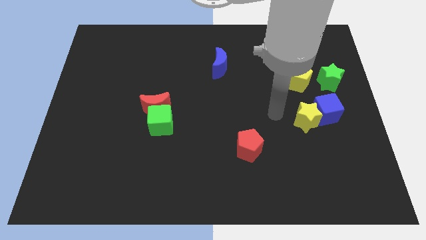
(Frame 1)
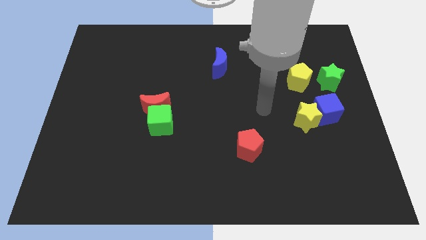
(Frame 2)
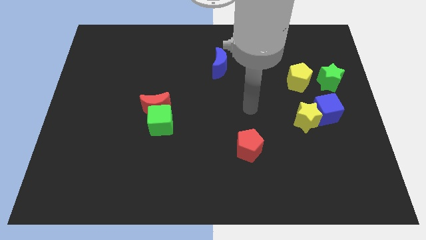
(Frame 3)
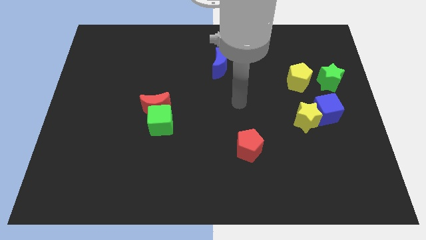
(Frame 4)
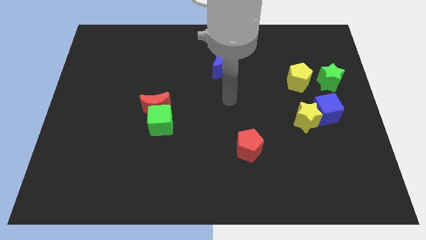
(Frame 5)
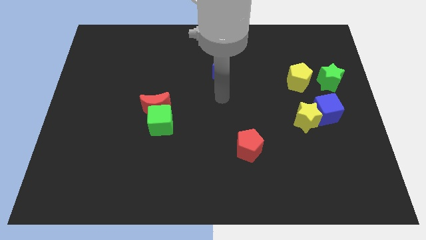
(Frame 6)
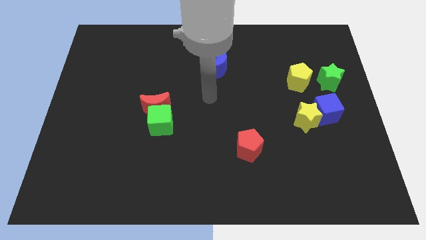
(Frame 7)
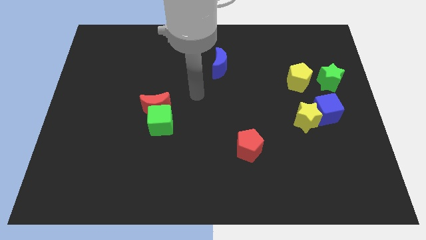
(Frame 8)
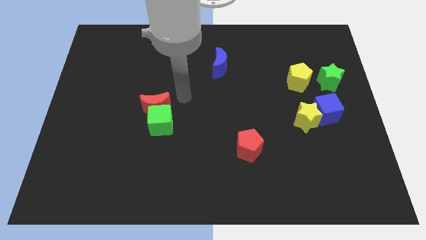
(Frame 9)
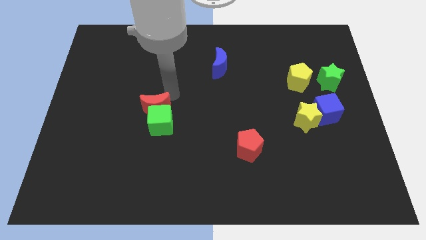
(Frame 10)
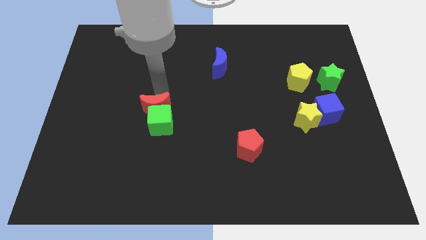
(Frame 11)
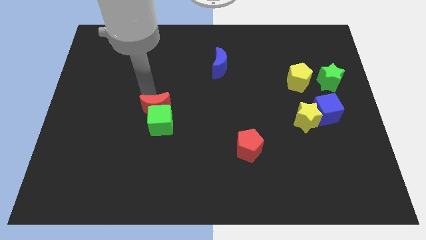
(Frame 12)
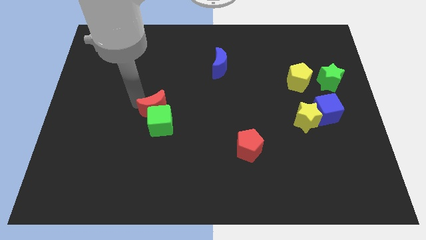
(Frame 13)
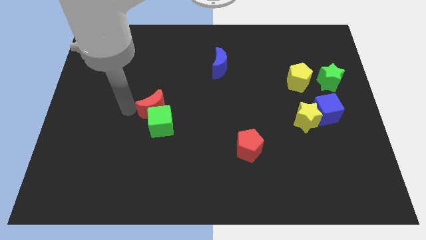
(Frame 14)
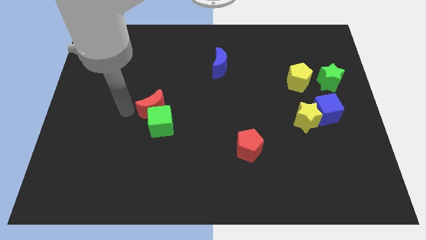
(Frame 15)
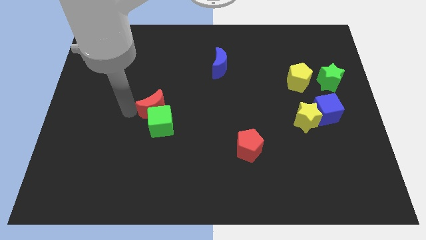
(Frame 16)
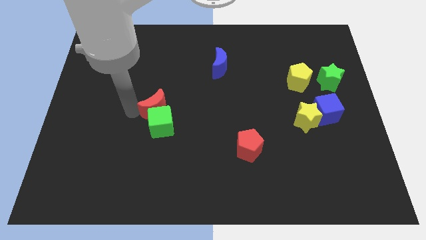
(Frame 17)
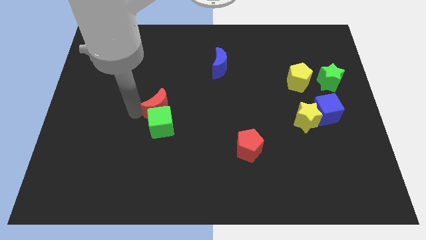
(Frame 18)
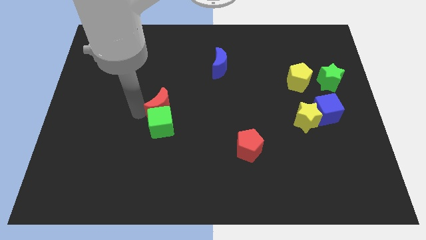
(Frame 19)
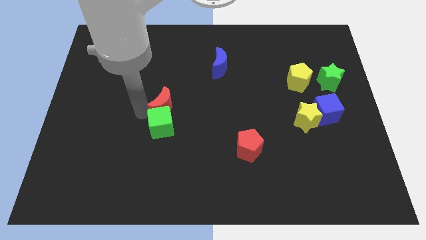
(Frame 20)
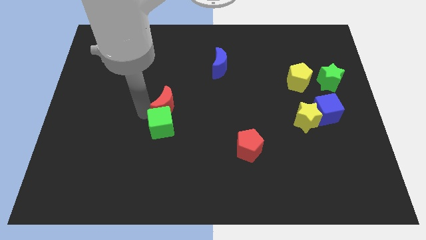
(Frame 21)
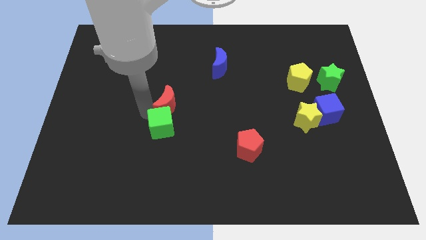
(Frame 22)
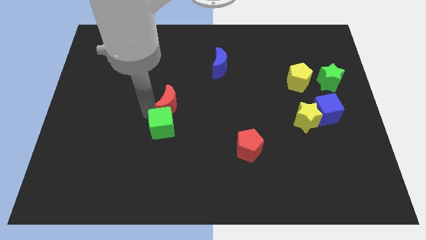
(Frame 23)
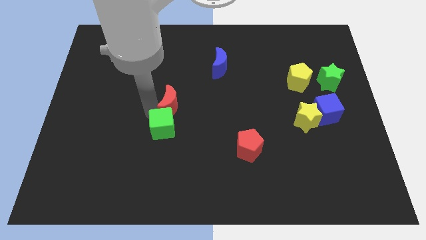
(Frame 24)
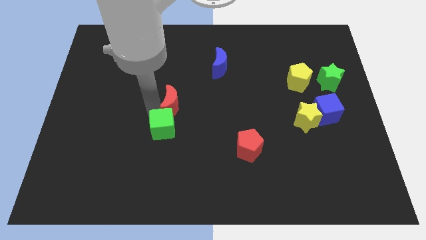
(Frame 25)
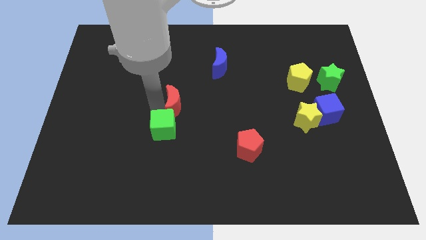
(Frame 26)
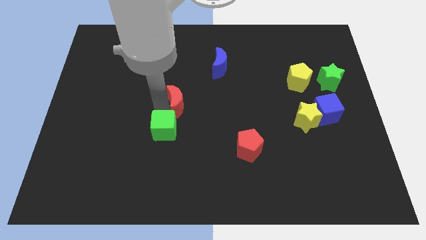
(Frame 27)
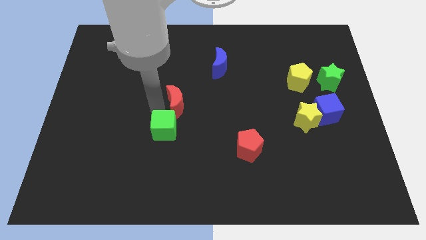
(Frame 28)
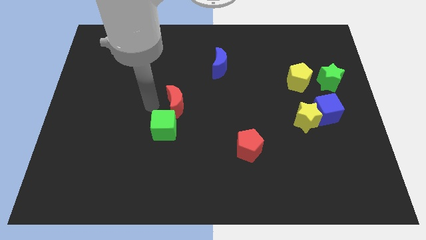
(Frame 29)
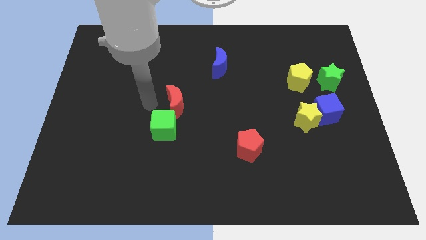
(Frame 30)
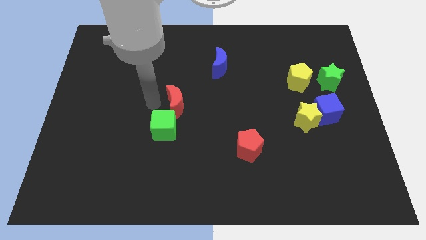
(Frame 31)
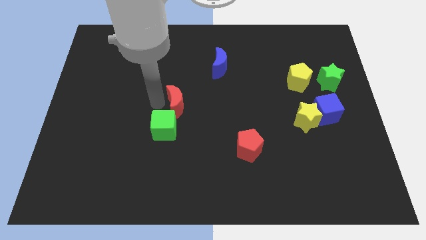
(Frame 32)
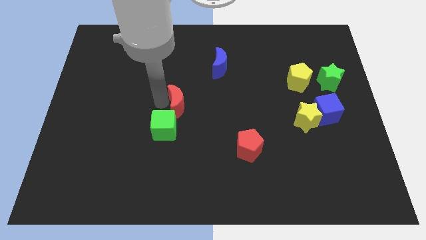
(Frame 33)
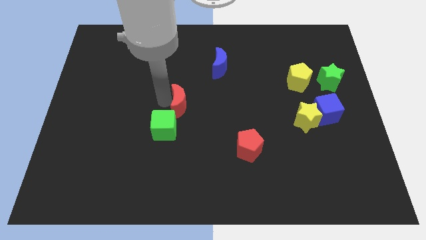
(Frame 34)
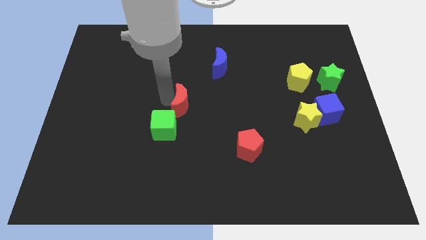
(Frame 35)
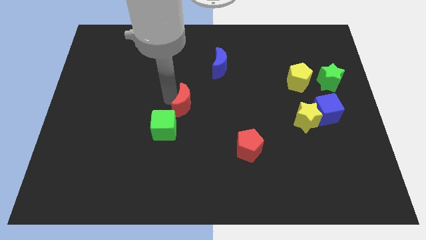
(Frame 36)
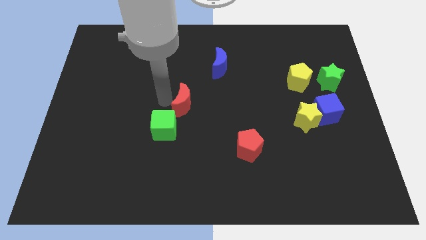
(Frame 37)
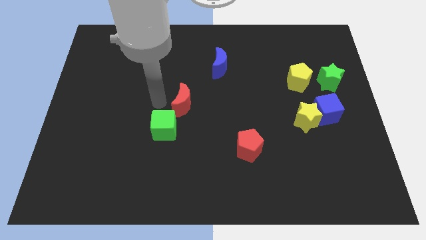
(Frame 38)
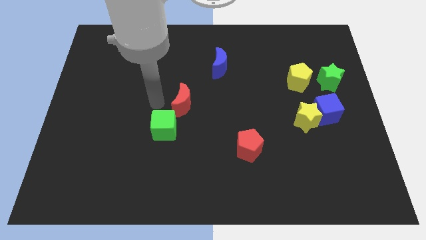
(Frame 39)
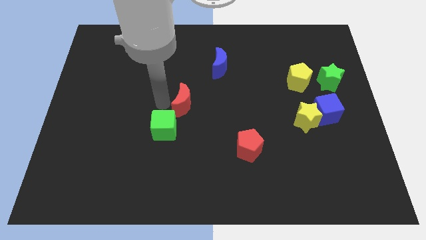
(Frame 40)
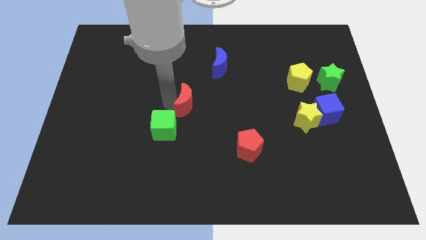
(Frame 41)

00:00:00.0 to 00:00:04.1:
move the red moon a little bit right

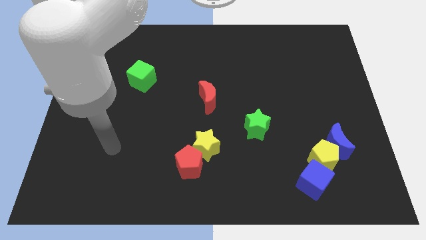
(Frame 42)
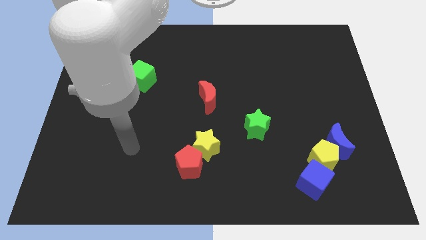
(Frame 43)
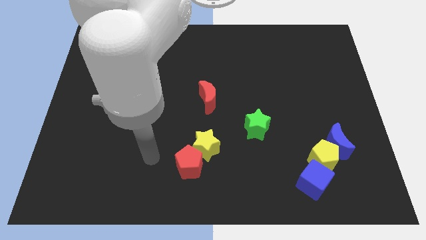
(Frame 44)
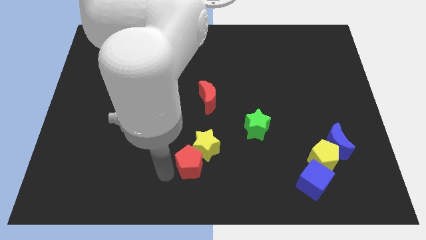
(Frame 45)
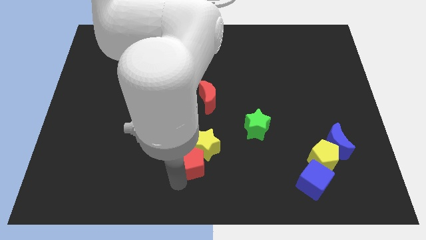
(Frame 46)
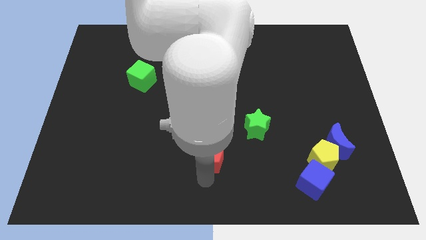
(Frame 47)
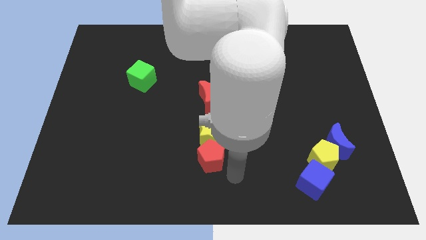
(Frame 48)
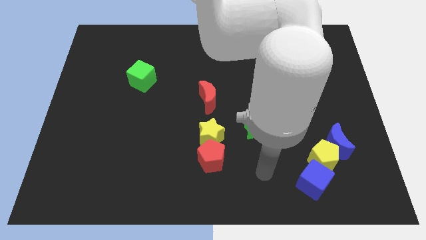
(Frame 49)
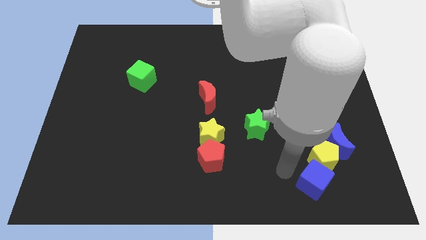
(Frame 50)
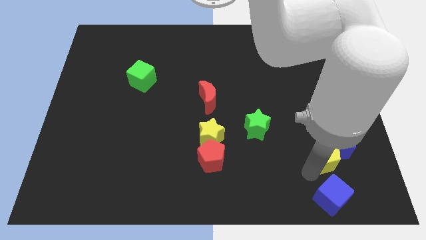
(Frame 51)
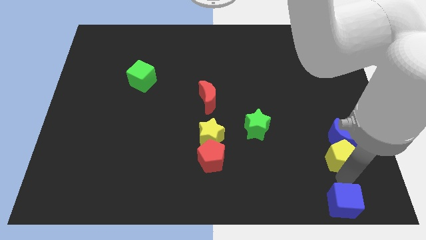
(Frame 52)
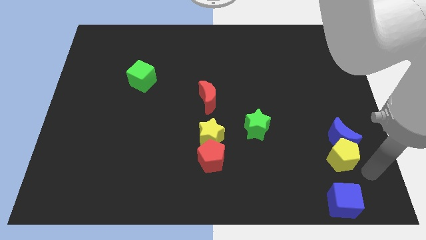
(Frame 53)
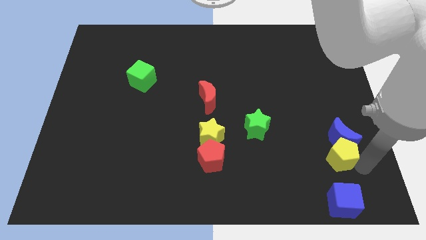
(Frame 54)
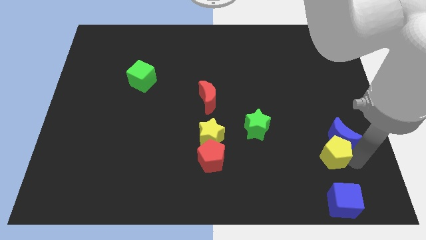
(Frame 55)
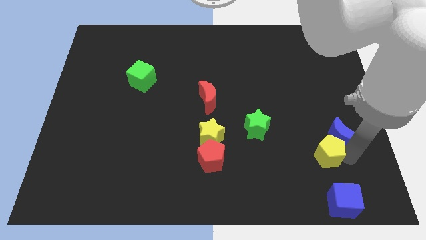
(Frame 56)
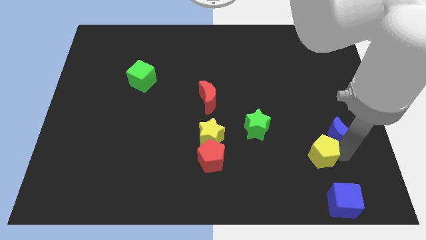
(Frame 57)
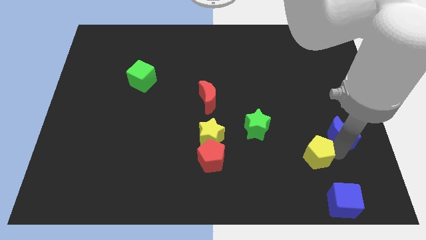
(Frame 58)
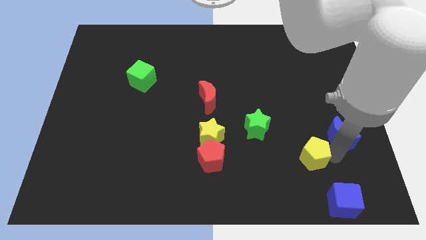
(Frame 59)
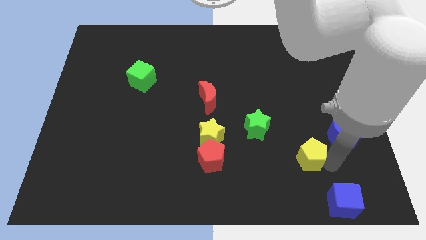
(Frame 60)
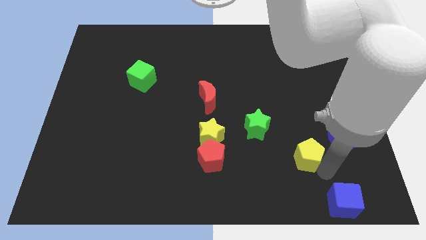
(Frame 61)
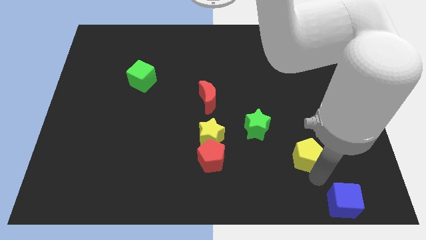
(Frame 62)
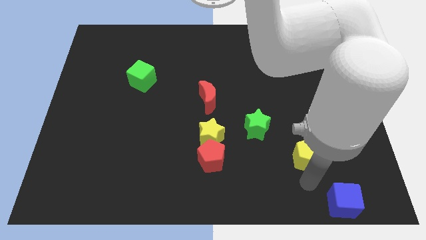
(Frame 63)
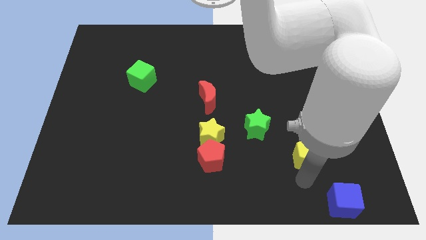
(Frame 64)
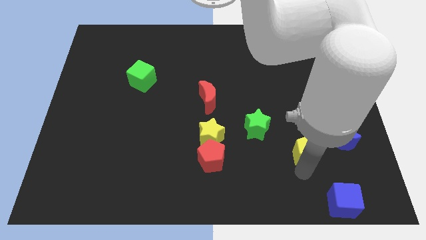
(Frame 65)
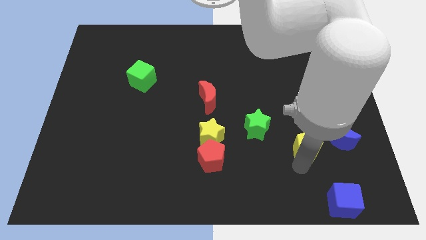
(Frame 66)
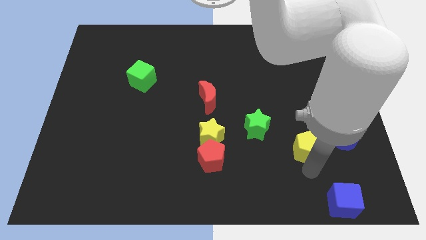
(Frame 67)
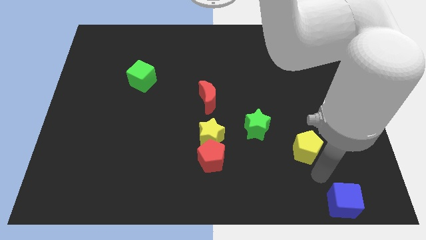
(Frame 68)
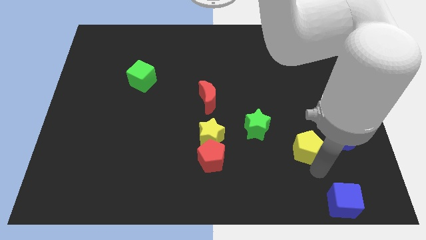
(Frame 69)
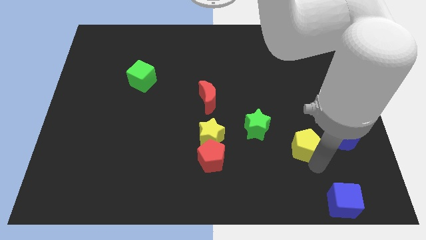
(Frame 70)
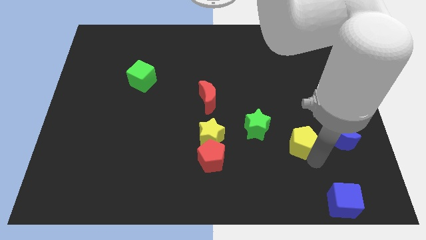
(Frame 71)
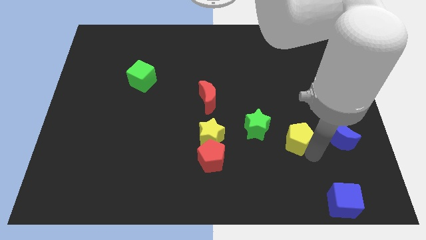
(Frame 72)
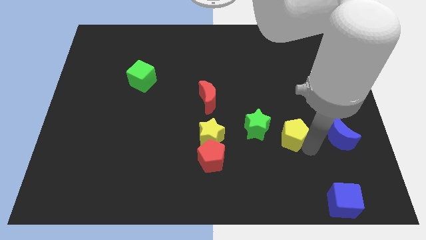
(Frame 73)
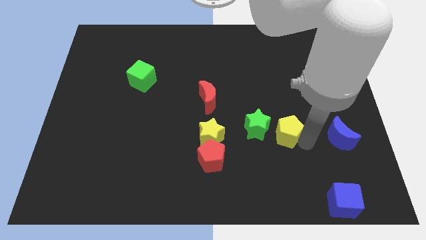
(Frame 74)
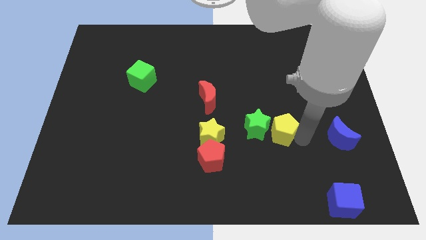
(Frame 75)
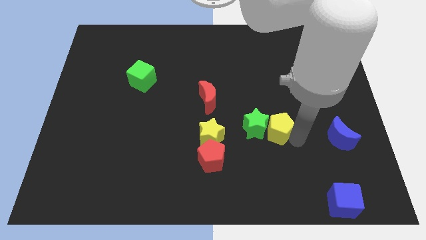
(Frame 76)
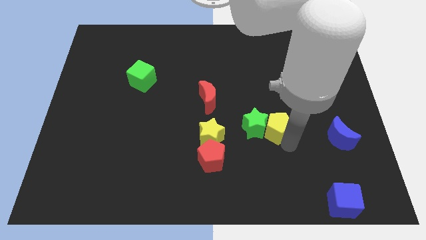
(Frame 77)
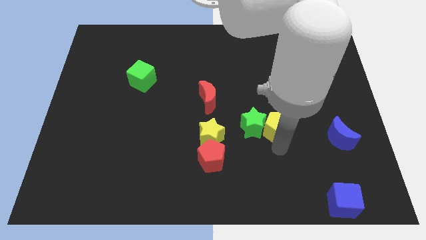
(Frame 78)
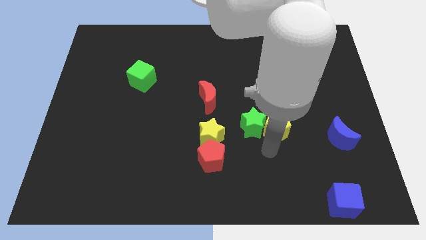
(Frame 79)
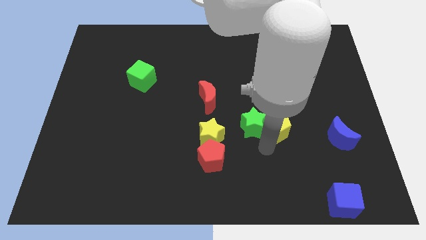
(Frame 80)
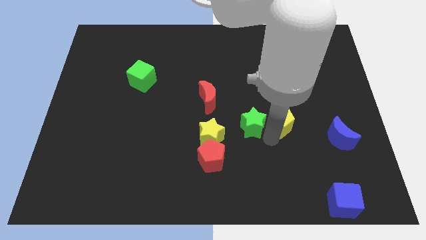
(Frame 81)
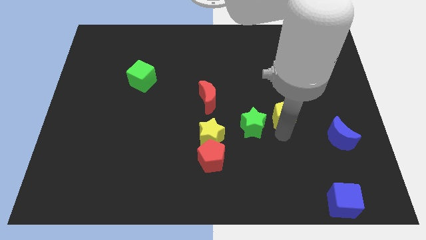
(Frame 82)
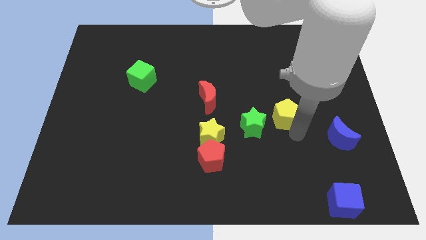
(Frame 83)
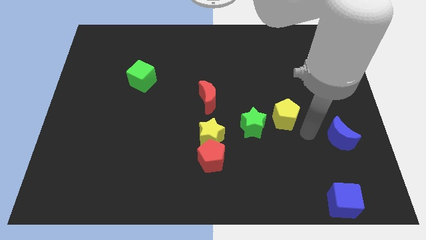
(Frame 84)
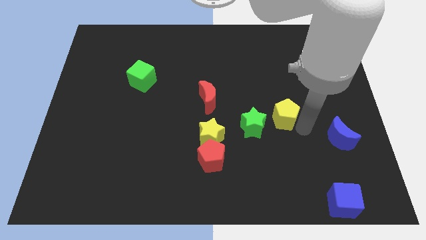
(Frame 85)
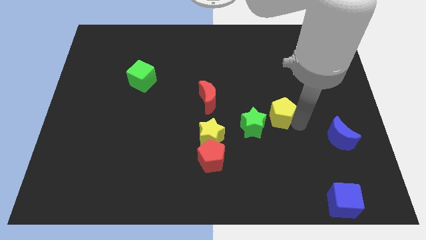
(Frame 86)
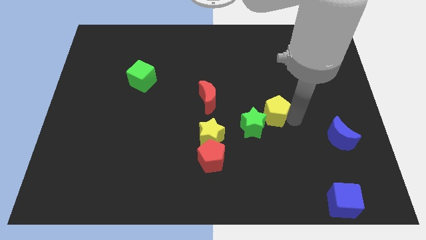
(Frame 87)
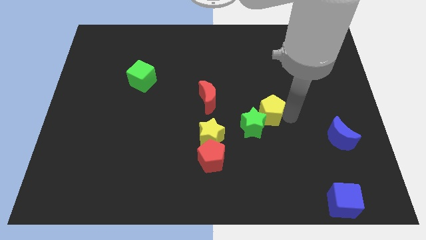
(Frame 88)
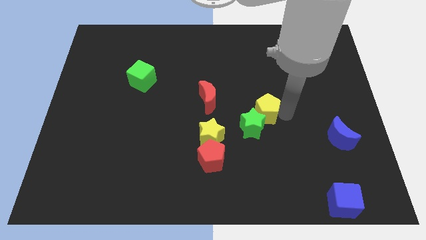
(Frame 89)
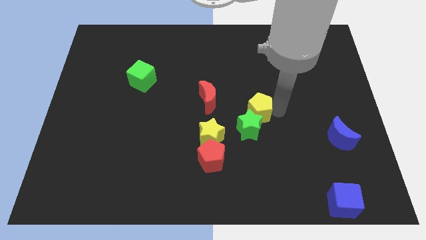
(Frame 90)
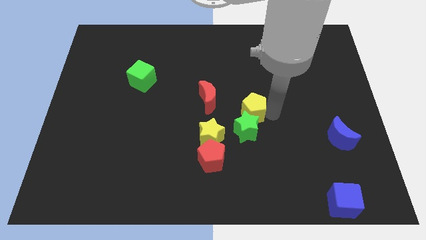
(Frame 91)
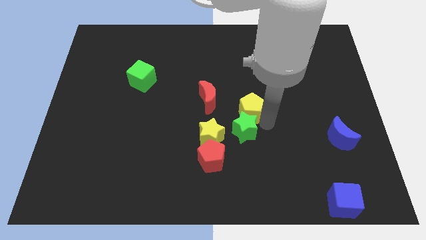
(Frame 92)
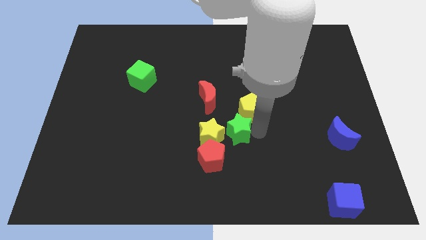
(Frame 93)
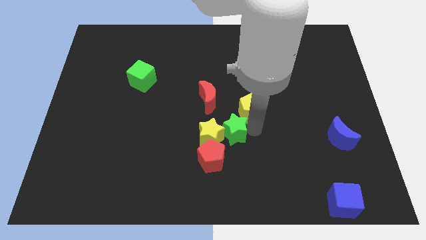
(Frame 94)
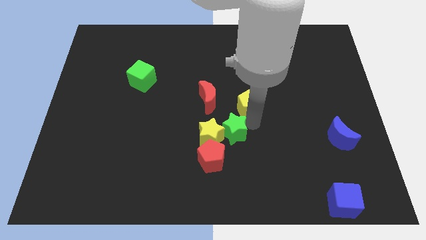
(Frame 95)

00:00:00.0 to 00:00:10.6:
slide the yellow pentagon upwards and left
